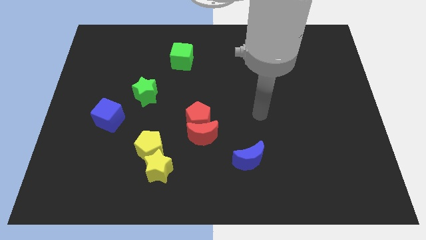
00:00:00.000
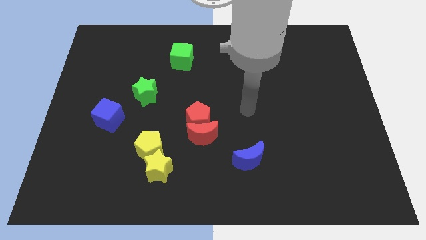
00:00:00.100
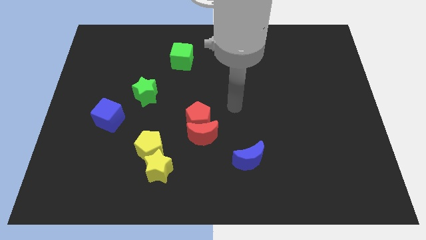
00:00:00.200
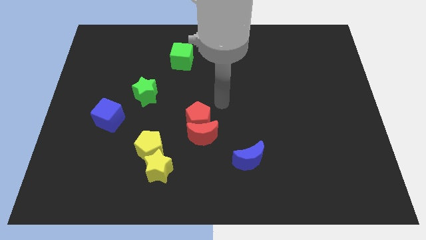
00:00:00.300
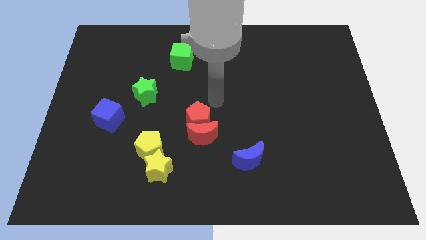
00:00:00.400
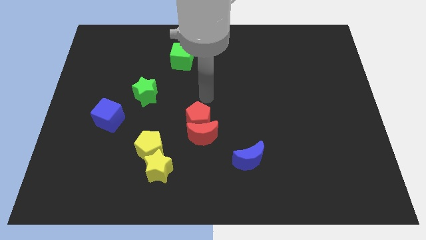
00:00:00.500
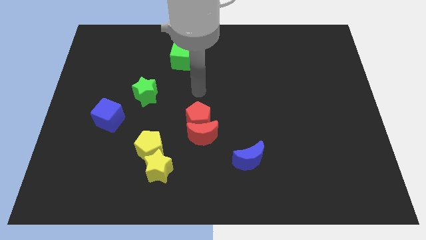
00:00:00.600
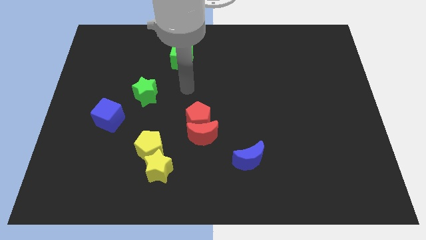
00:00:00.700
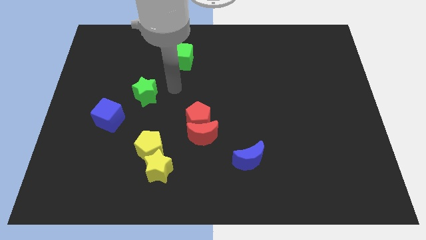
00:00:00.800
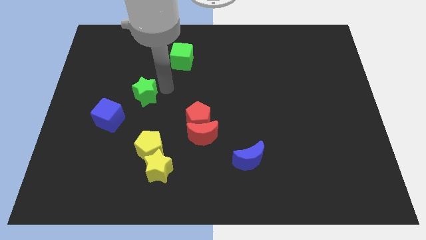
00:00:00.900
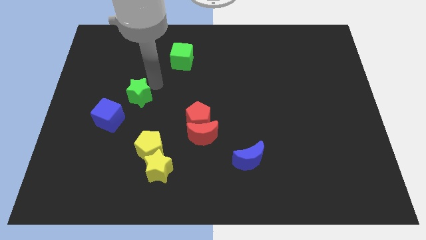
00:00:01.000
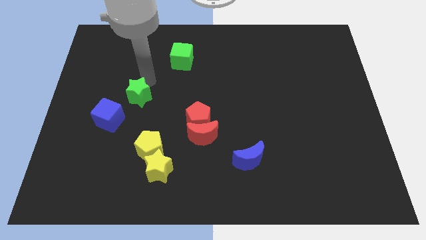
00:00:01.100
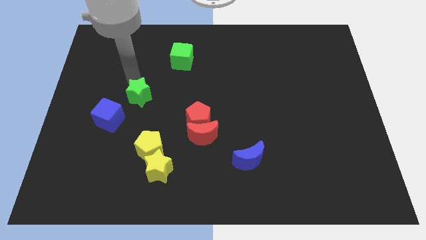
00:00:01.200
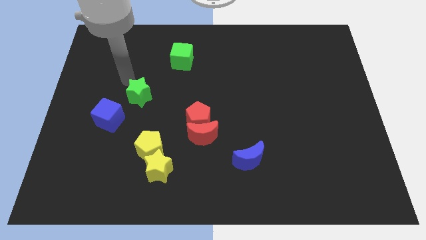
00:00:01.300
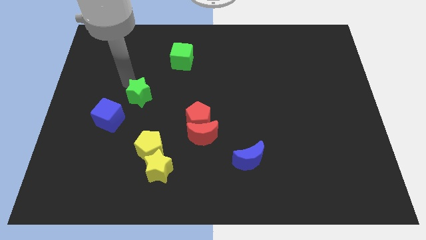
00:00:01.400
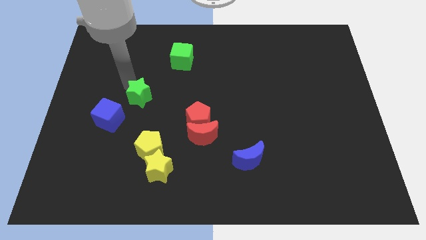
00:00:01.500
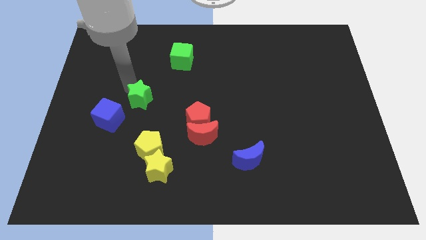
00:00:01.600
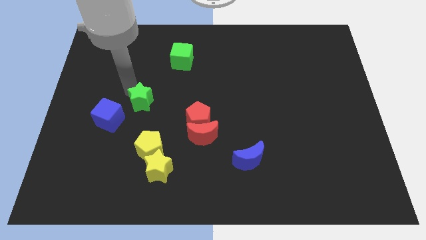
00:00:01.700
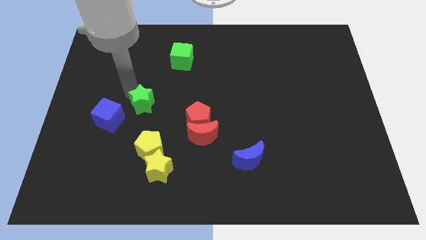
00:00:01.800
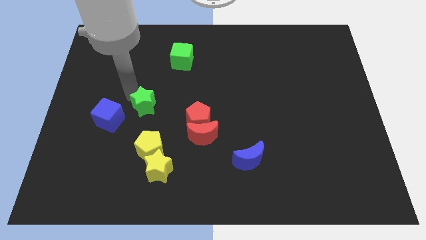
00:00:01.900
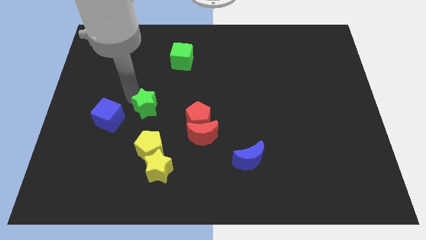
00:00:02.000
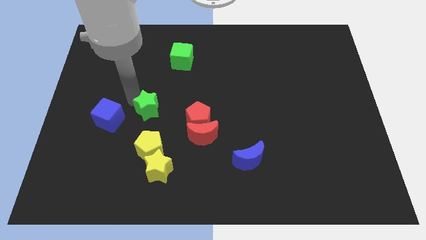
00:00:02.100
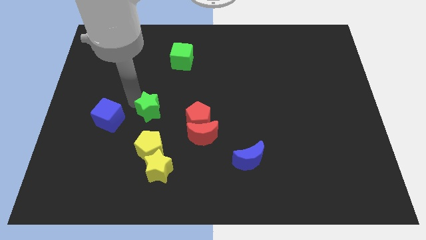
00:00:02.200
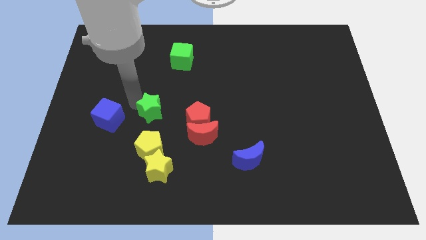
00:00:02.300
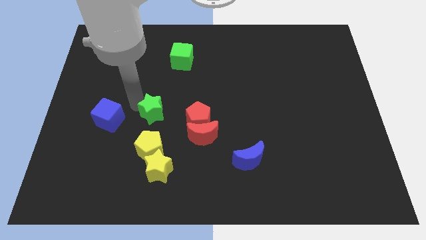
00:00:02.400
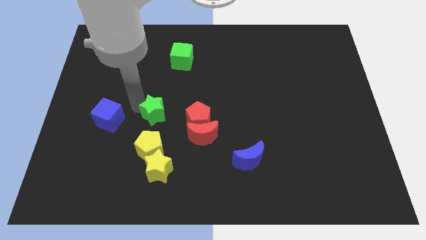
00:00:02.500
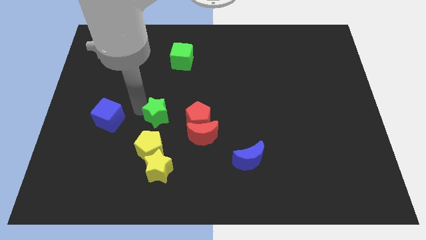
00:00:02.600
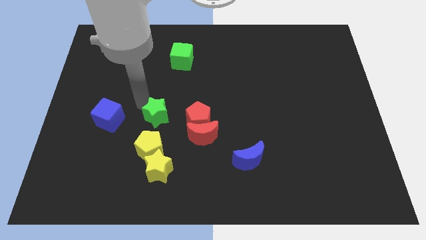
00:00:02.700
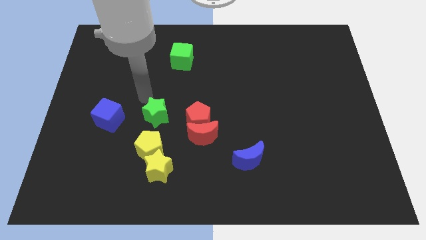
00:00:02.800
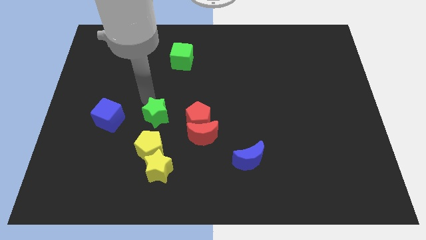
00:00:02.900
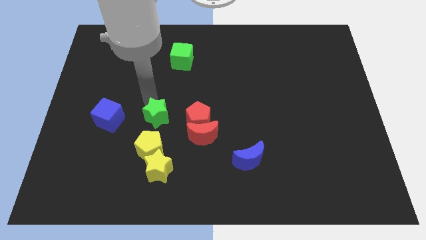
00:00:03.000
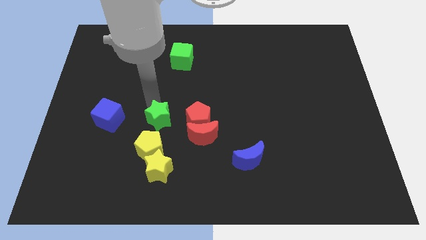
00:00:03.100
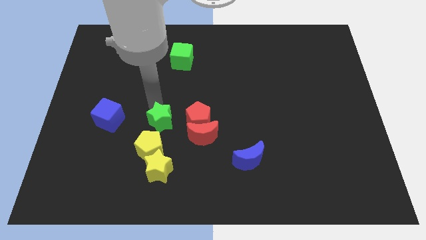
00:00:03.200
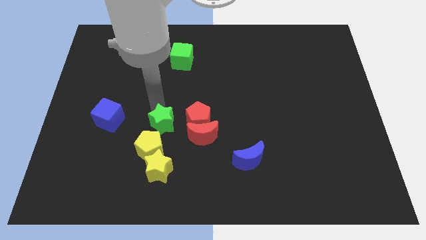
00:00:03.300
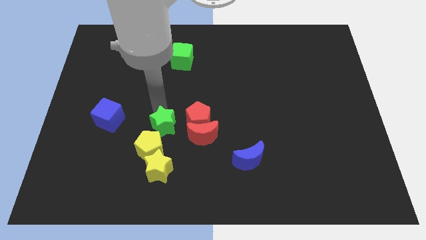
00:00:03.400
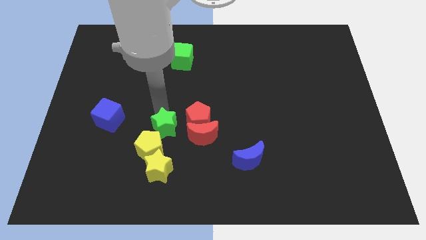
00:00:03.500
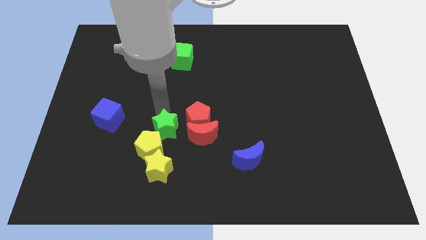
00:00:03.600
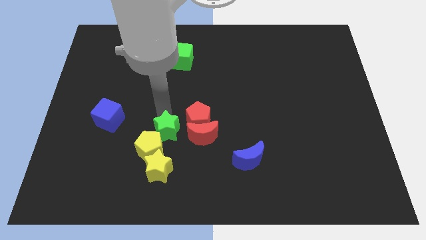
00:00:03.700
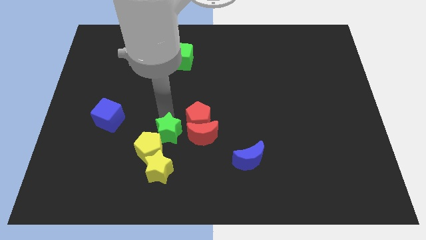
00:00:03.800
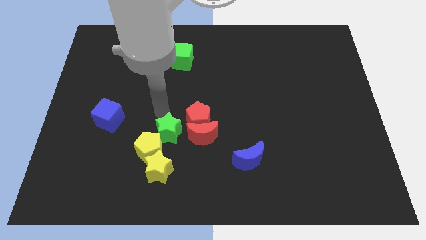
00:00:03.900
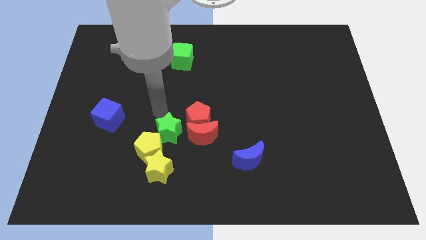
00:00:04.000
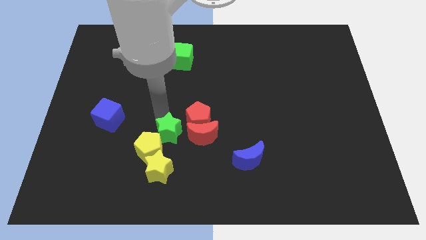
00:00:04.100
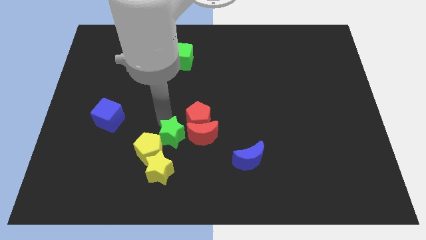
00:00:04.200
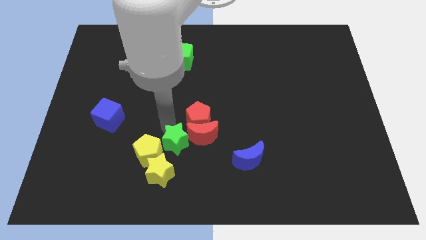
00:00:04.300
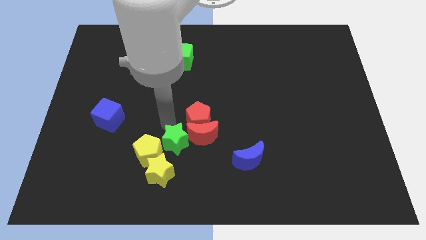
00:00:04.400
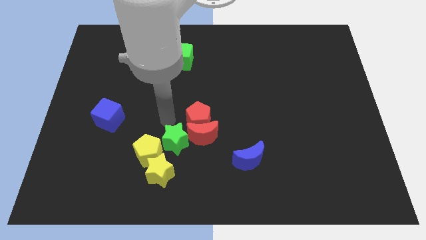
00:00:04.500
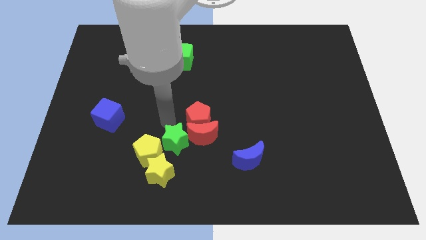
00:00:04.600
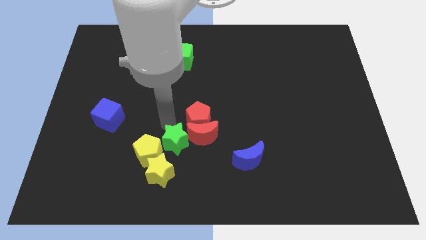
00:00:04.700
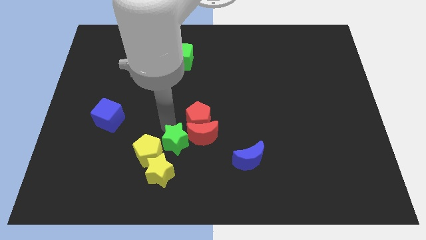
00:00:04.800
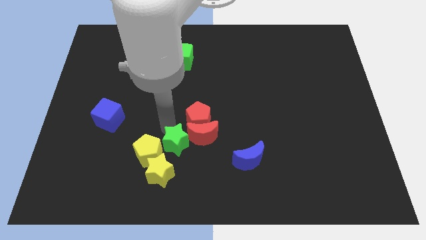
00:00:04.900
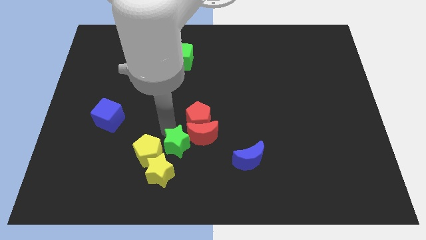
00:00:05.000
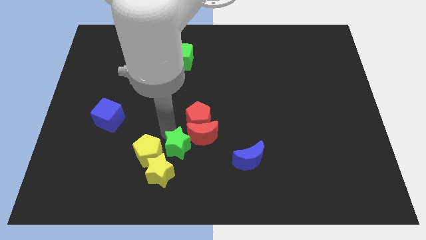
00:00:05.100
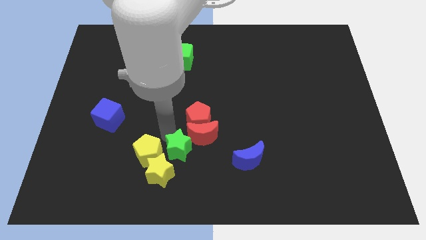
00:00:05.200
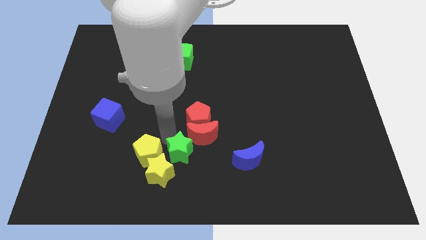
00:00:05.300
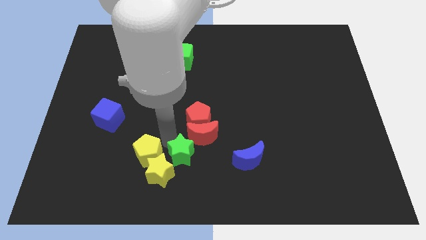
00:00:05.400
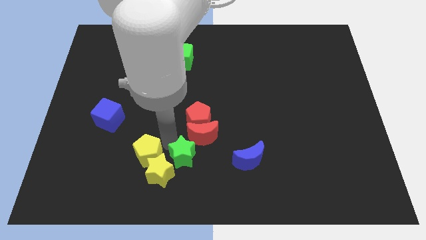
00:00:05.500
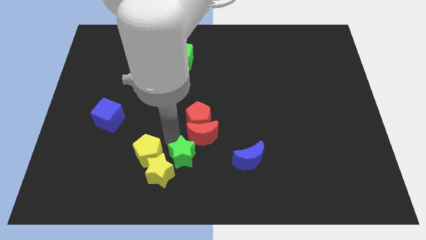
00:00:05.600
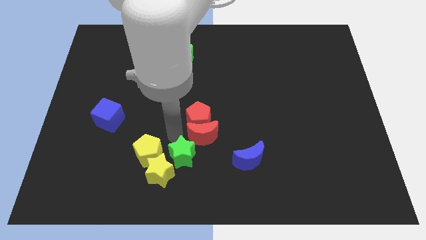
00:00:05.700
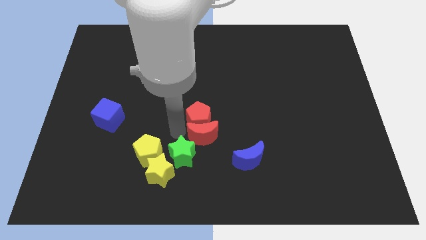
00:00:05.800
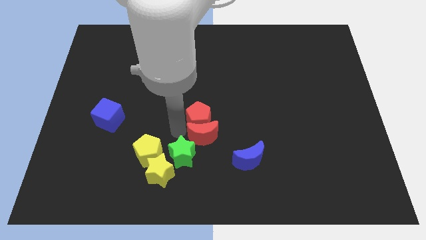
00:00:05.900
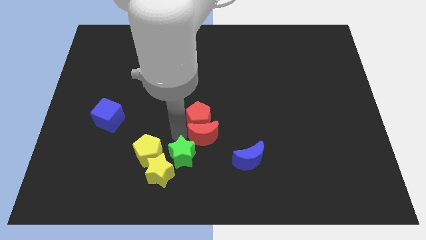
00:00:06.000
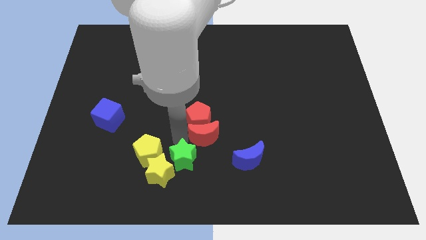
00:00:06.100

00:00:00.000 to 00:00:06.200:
push the green star to the bottom side
